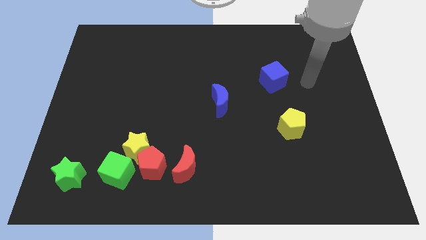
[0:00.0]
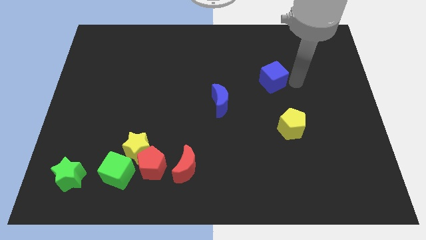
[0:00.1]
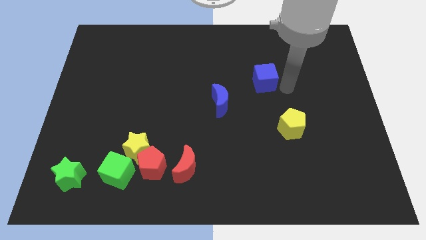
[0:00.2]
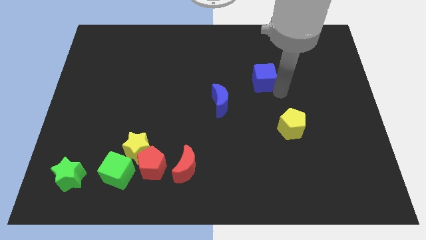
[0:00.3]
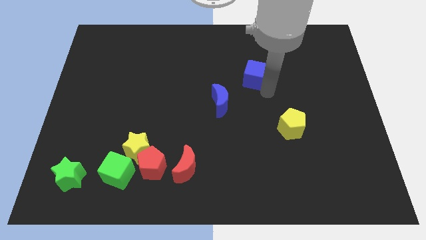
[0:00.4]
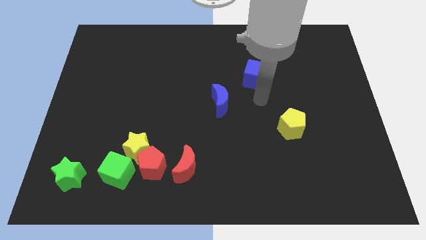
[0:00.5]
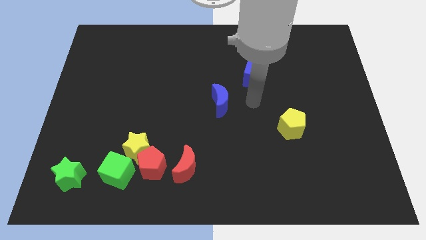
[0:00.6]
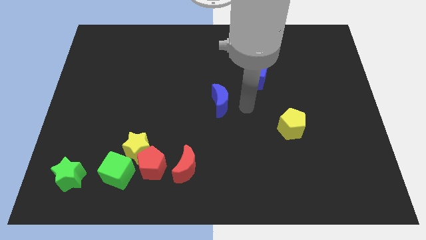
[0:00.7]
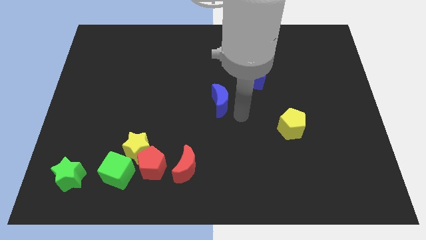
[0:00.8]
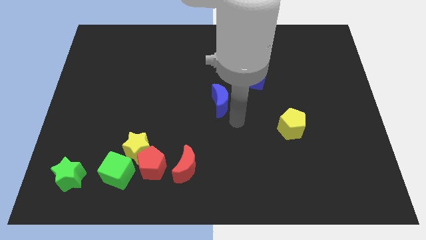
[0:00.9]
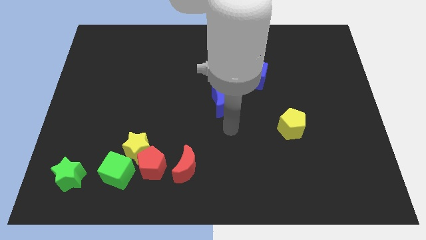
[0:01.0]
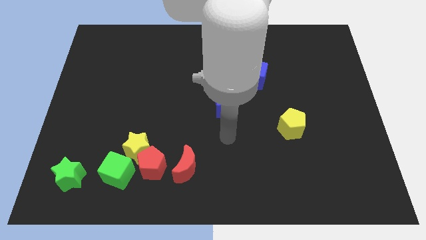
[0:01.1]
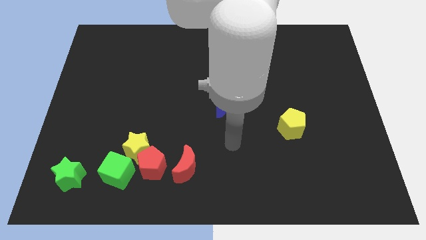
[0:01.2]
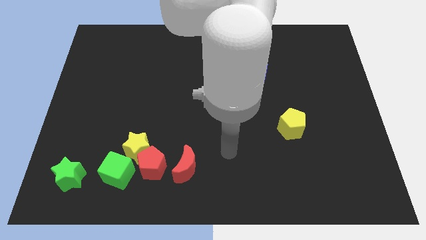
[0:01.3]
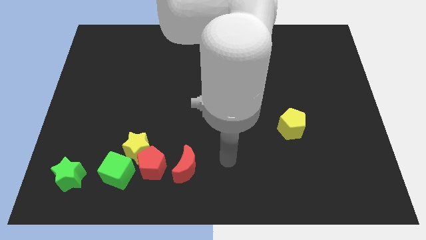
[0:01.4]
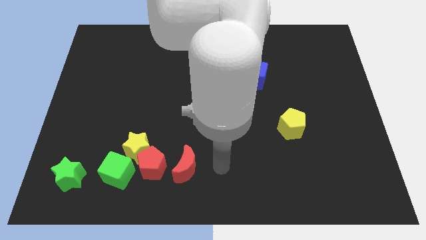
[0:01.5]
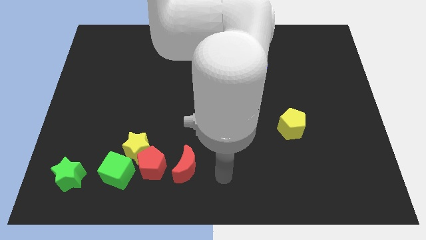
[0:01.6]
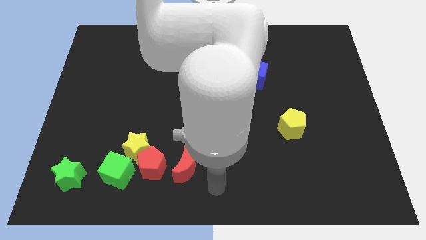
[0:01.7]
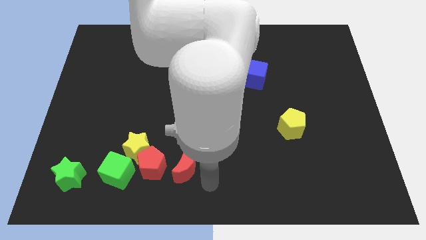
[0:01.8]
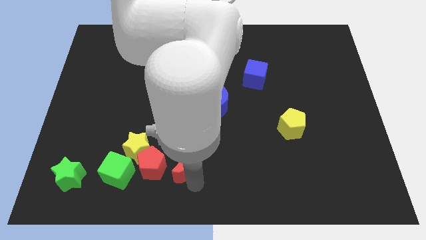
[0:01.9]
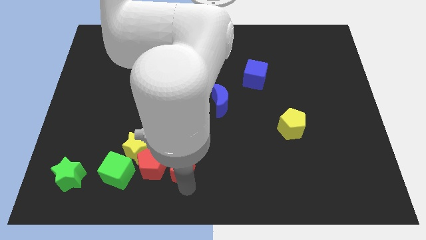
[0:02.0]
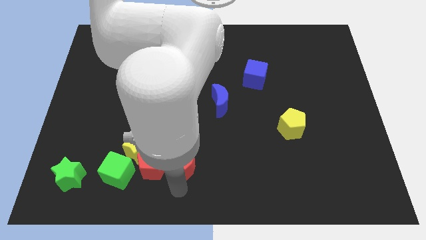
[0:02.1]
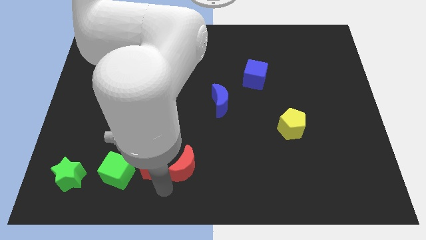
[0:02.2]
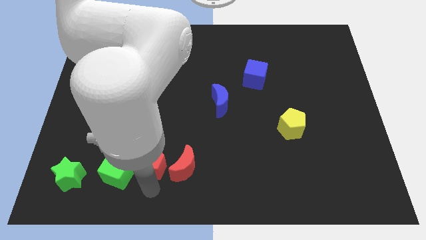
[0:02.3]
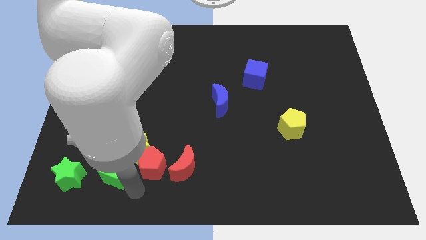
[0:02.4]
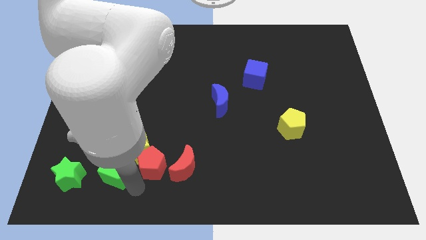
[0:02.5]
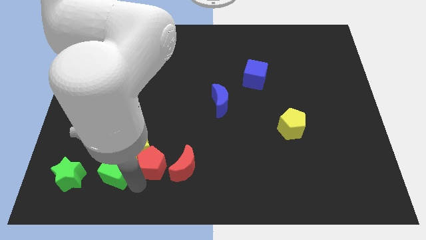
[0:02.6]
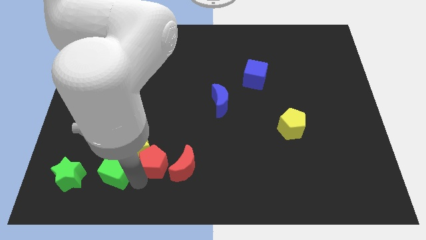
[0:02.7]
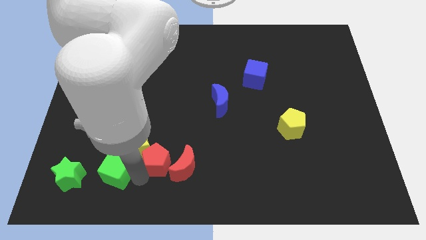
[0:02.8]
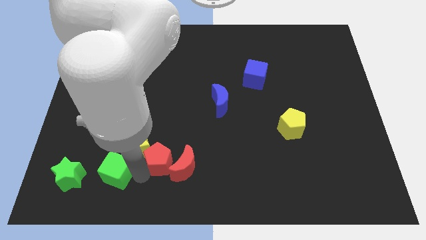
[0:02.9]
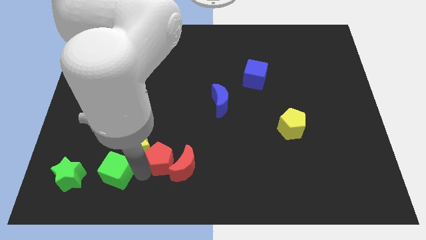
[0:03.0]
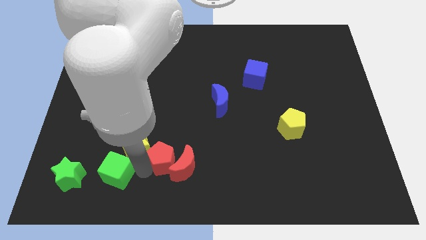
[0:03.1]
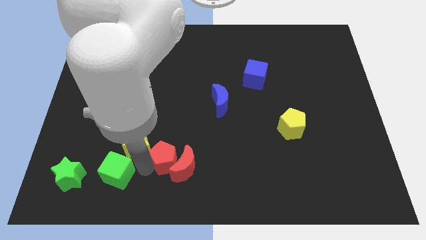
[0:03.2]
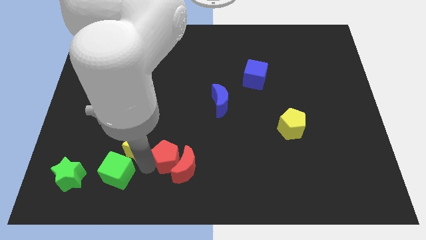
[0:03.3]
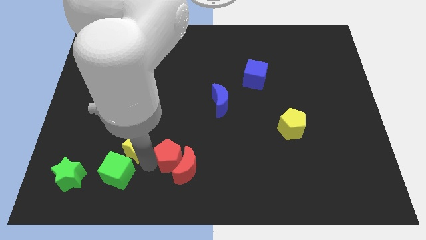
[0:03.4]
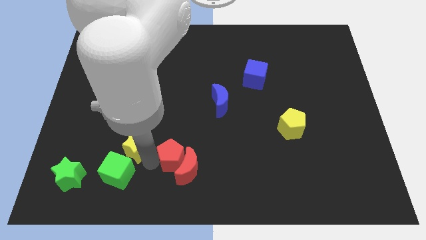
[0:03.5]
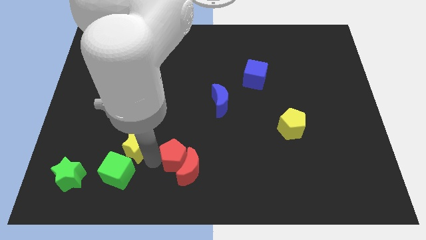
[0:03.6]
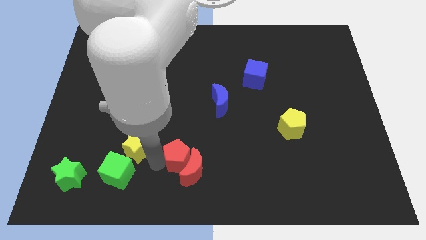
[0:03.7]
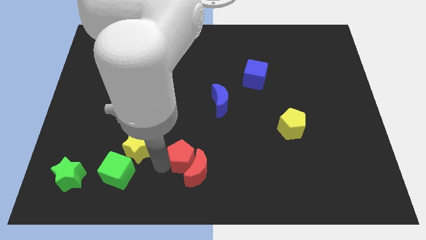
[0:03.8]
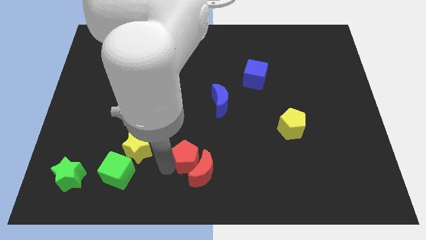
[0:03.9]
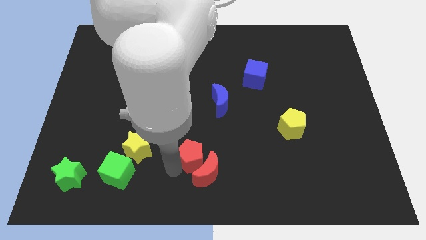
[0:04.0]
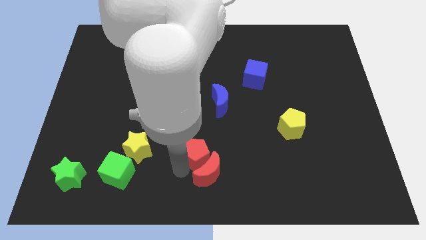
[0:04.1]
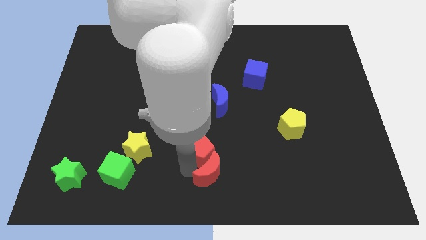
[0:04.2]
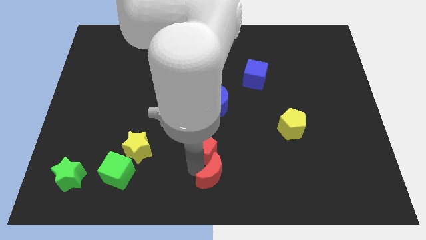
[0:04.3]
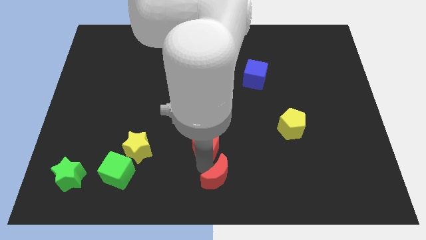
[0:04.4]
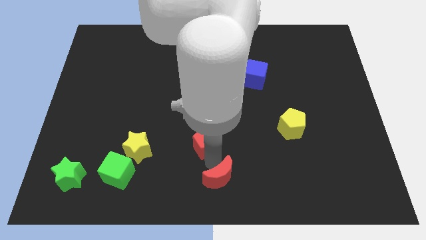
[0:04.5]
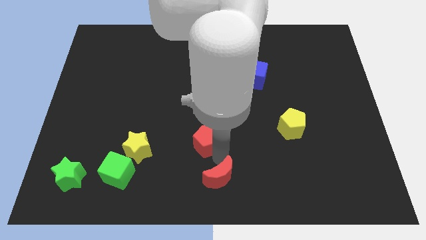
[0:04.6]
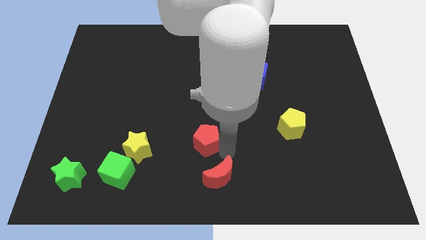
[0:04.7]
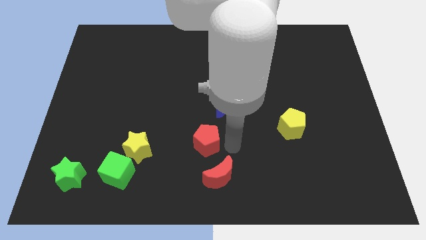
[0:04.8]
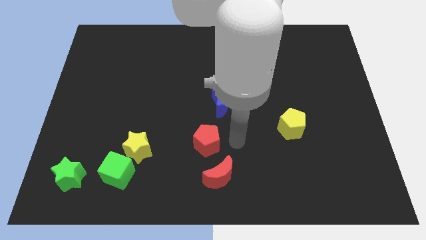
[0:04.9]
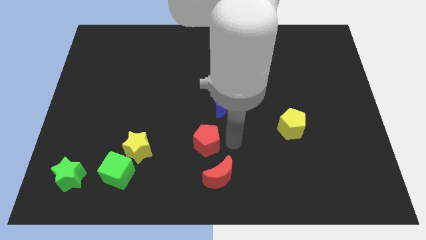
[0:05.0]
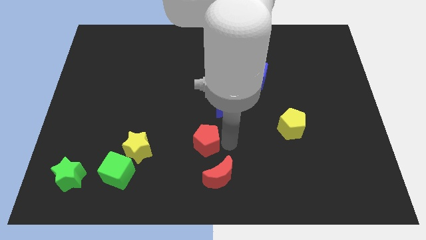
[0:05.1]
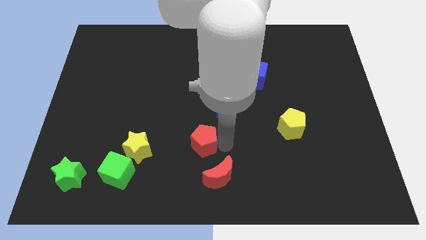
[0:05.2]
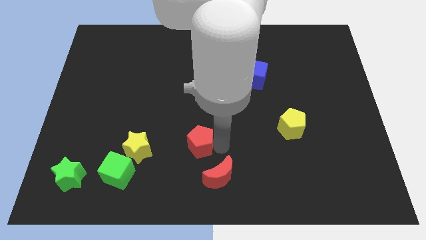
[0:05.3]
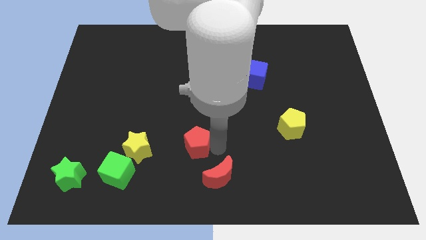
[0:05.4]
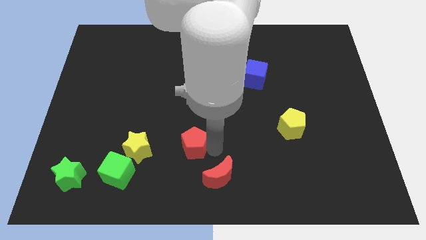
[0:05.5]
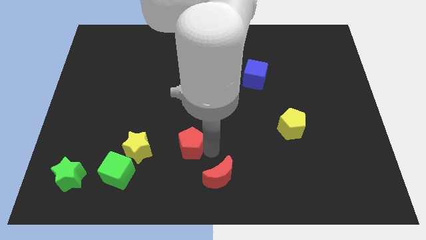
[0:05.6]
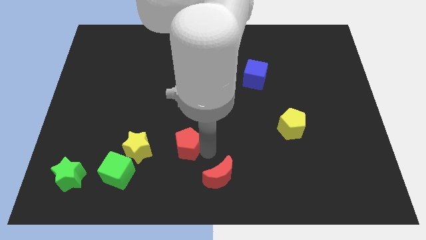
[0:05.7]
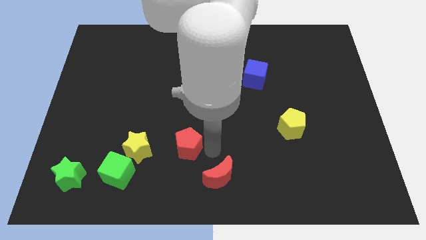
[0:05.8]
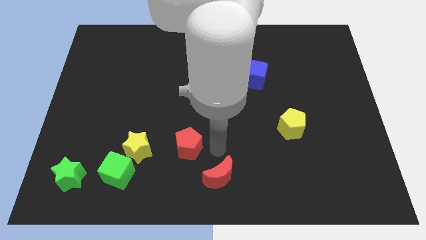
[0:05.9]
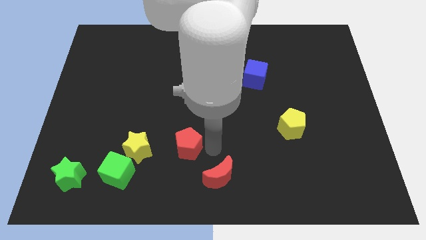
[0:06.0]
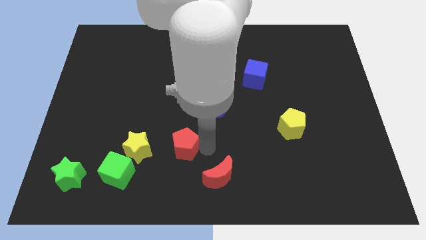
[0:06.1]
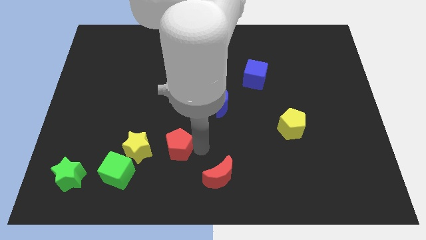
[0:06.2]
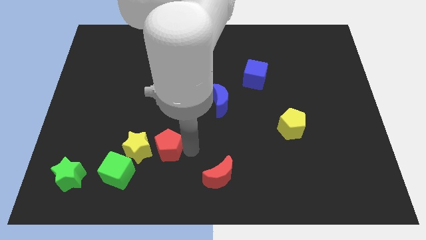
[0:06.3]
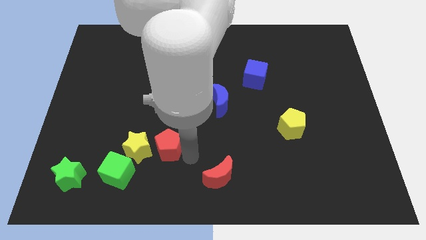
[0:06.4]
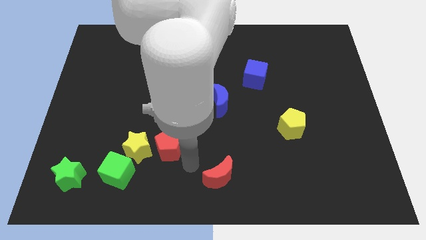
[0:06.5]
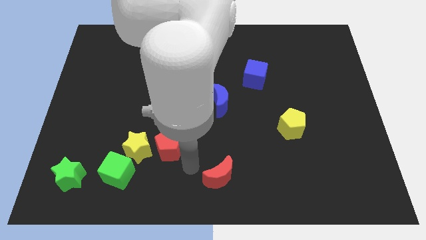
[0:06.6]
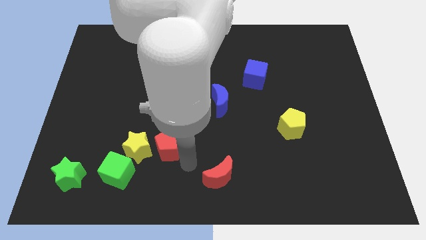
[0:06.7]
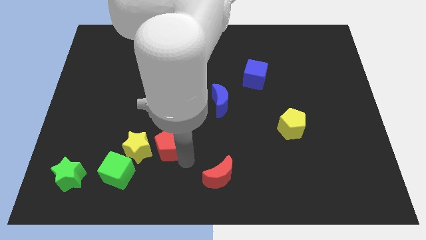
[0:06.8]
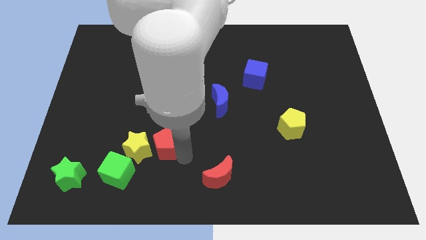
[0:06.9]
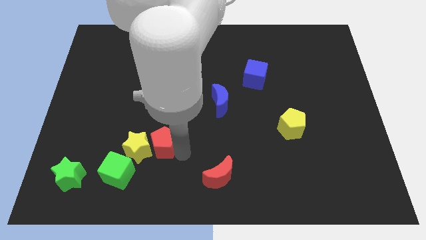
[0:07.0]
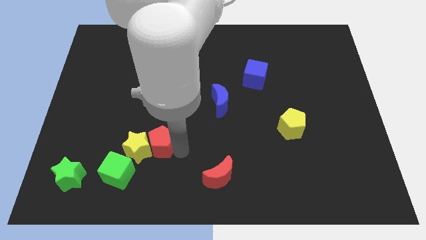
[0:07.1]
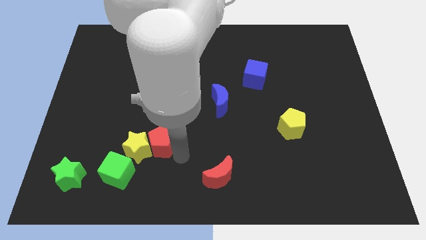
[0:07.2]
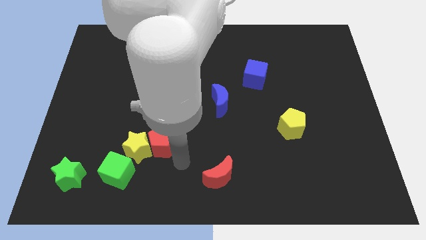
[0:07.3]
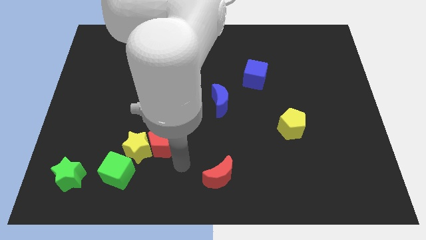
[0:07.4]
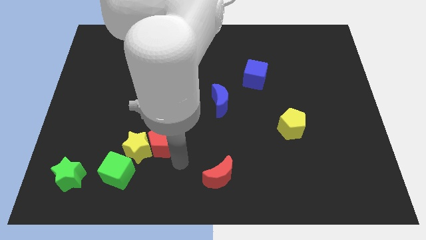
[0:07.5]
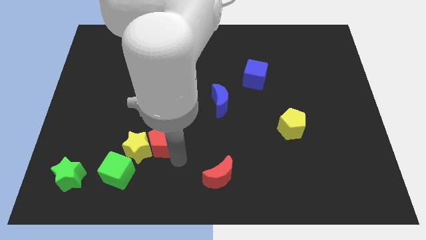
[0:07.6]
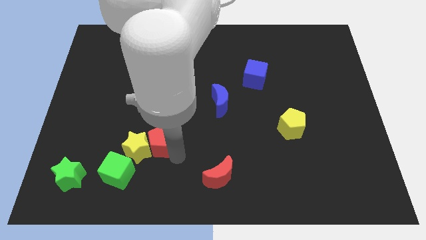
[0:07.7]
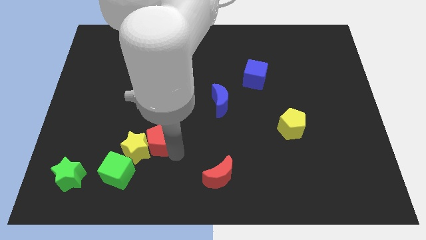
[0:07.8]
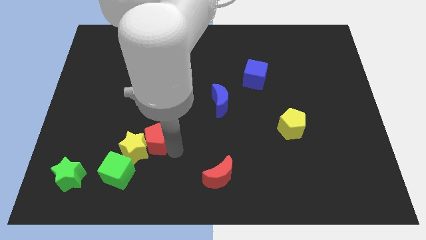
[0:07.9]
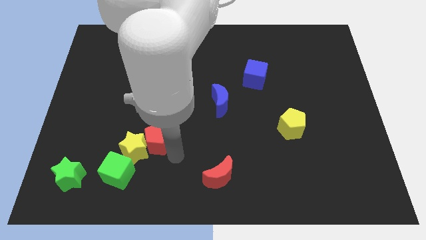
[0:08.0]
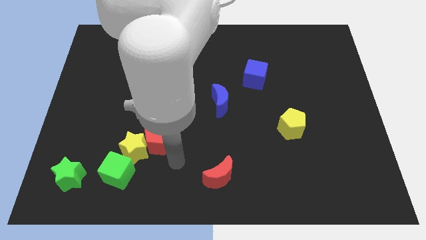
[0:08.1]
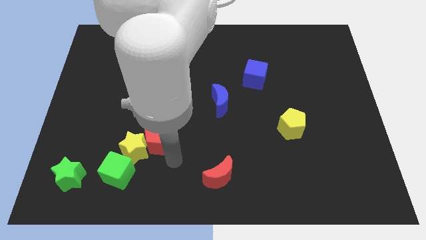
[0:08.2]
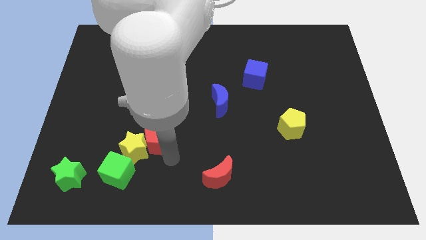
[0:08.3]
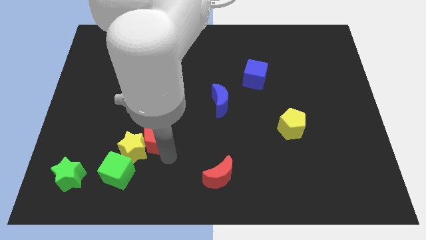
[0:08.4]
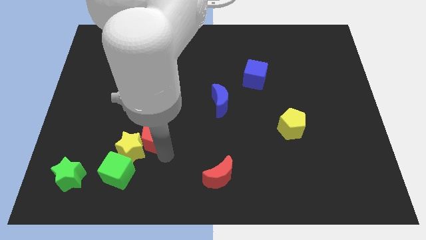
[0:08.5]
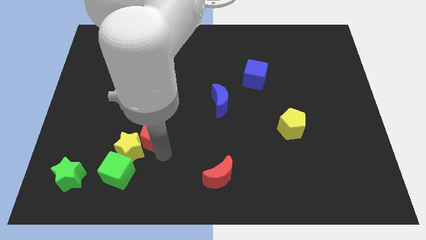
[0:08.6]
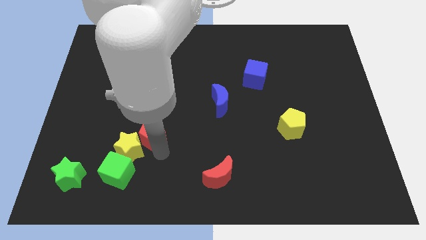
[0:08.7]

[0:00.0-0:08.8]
slide the red pentagon above the yellow star
